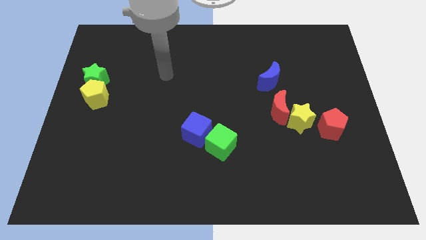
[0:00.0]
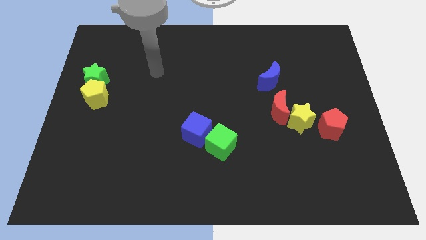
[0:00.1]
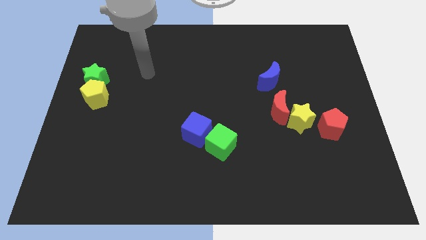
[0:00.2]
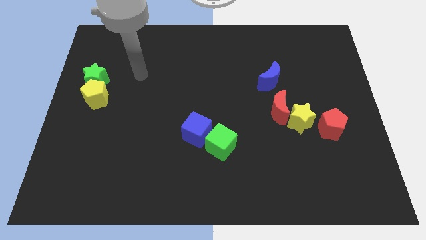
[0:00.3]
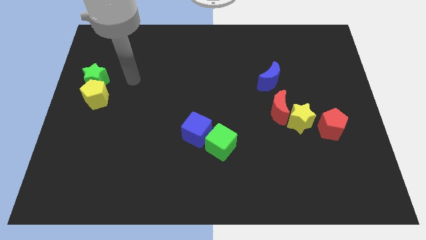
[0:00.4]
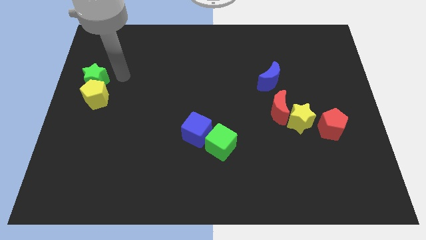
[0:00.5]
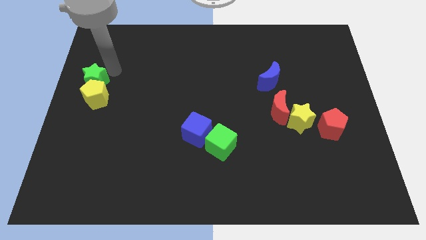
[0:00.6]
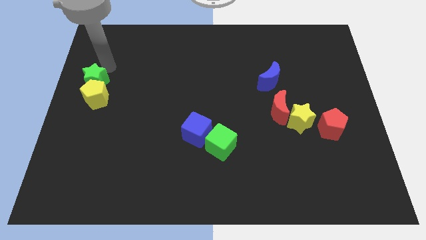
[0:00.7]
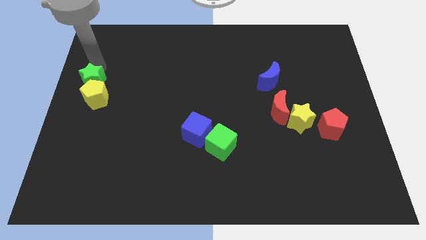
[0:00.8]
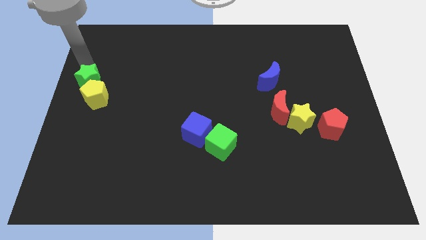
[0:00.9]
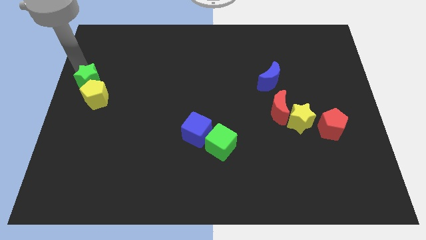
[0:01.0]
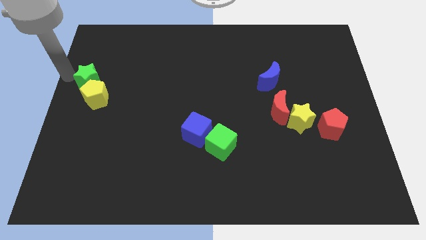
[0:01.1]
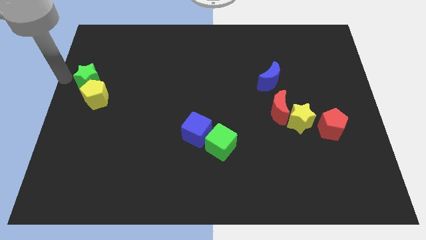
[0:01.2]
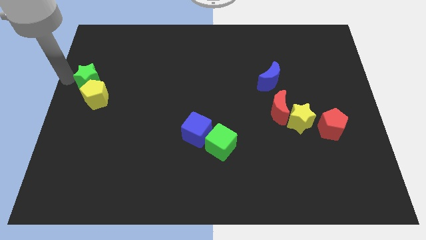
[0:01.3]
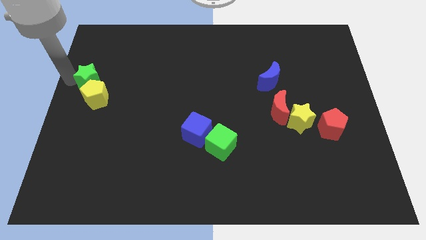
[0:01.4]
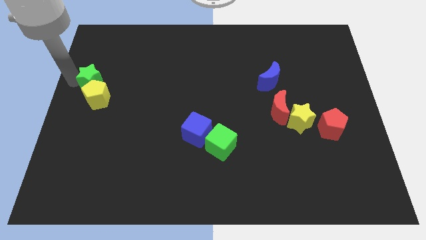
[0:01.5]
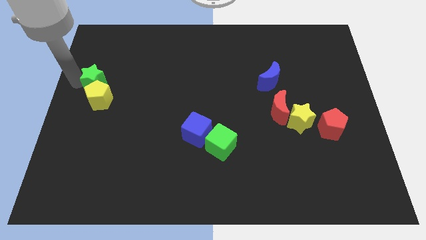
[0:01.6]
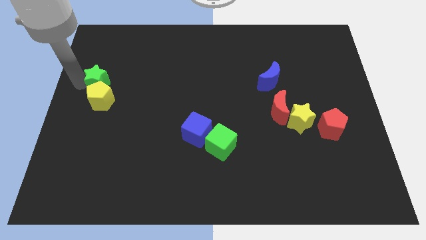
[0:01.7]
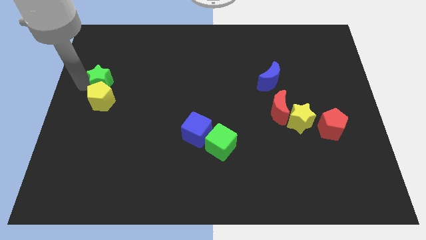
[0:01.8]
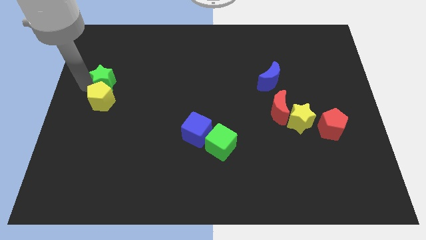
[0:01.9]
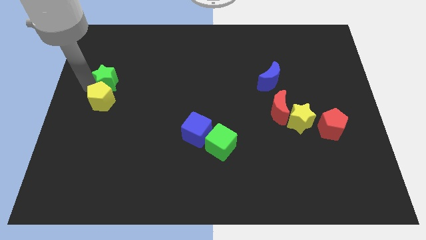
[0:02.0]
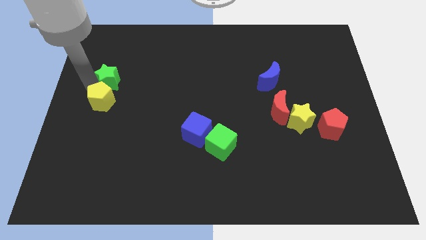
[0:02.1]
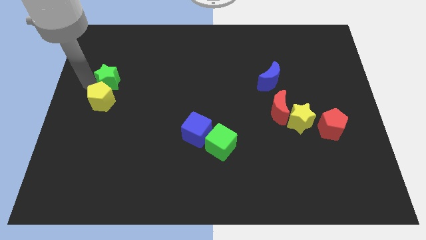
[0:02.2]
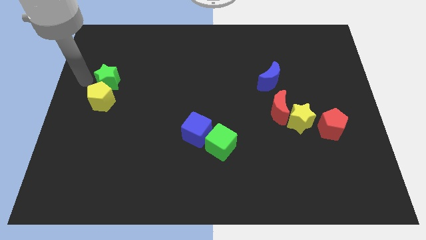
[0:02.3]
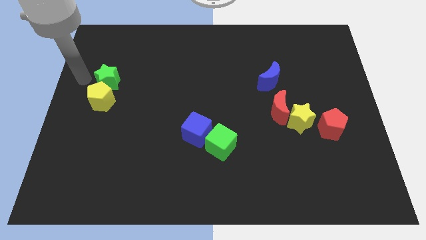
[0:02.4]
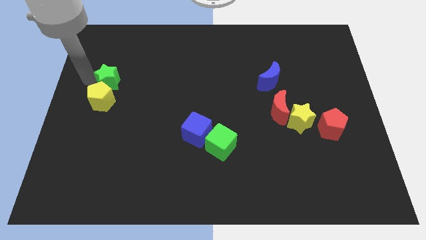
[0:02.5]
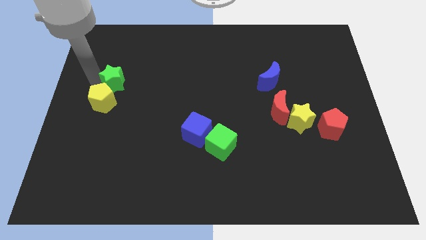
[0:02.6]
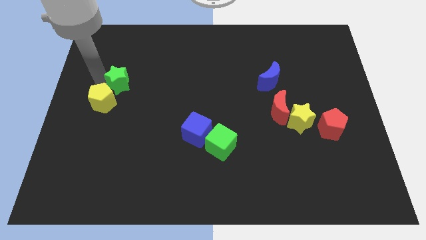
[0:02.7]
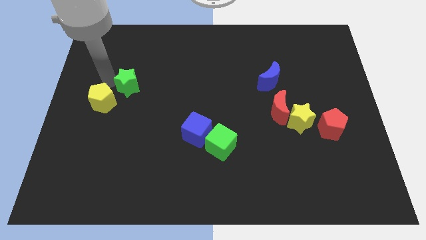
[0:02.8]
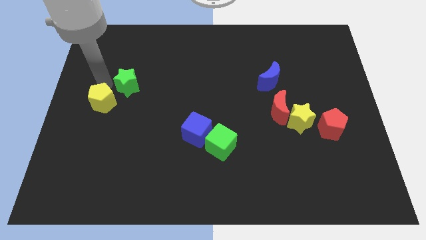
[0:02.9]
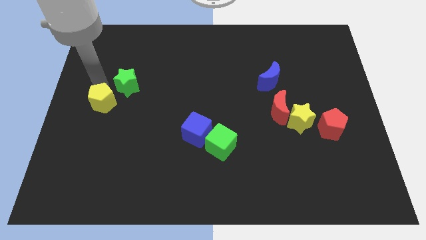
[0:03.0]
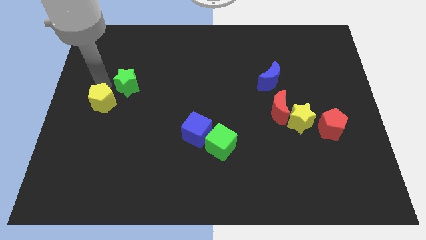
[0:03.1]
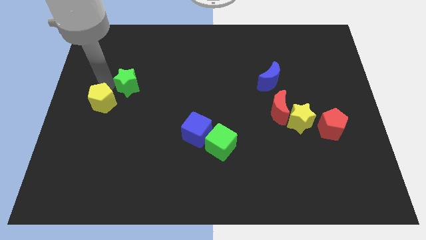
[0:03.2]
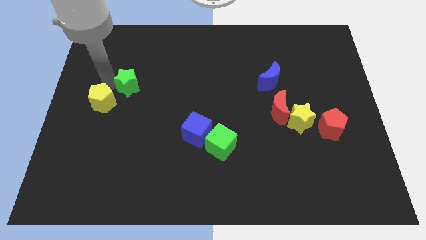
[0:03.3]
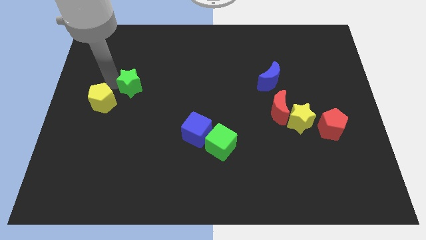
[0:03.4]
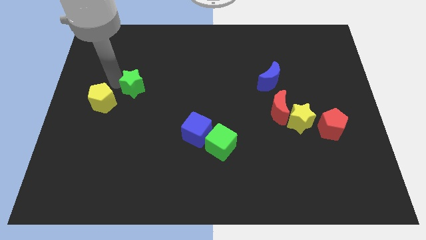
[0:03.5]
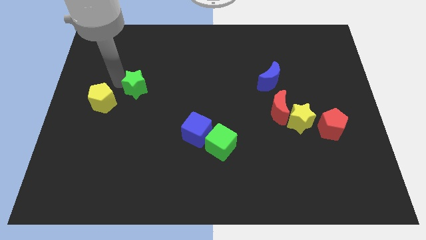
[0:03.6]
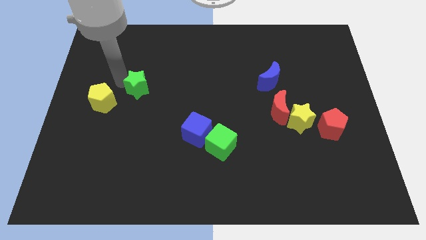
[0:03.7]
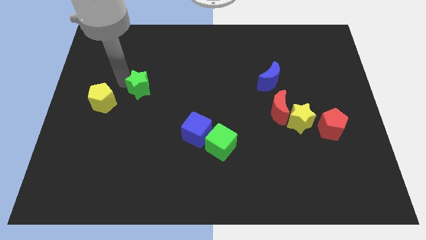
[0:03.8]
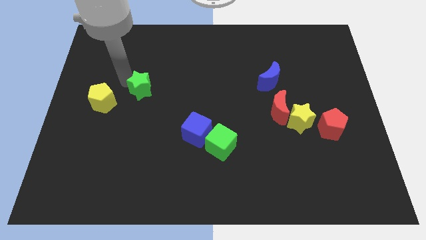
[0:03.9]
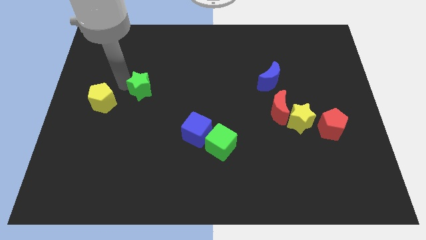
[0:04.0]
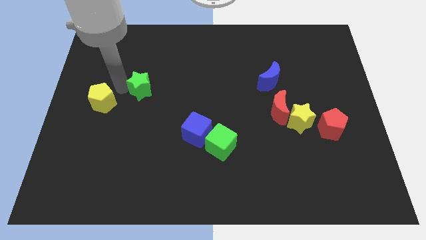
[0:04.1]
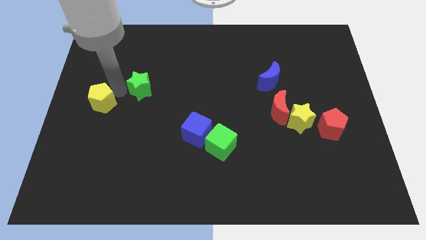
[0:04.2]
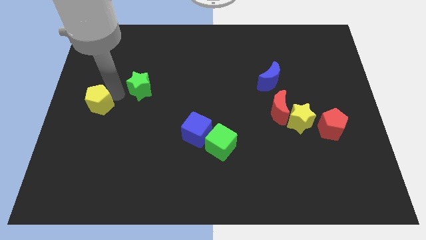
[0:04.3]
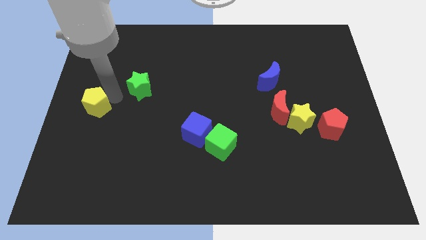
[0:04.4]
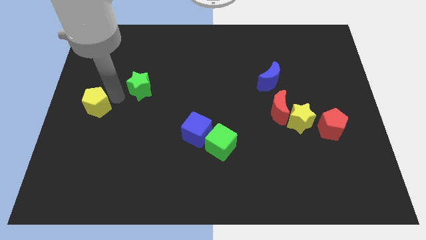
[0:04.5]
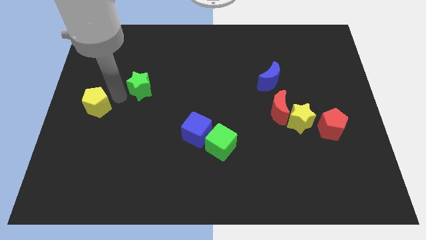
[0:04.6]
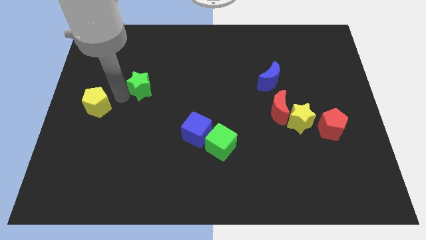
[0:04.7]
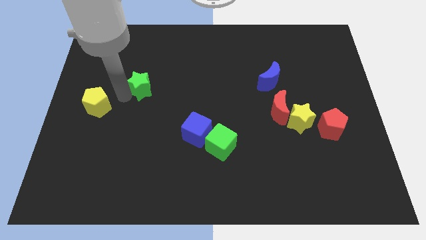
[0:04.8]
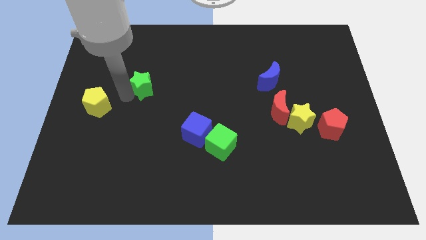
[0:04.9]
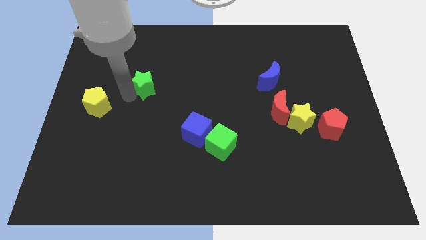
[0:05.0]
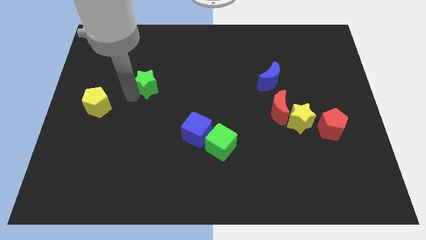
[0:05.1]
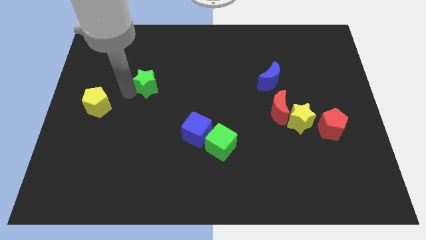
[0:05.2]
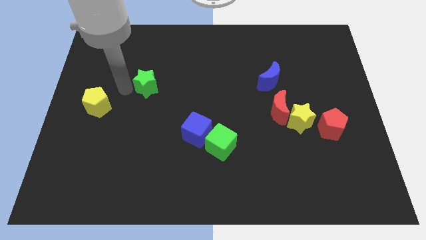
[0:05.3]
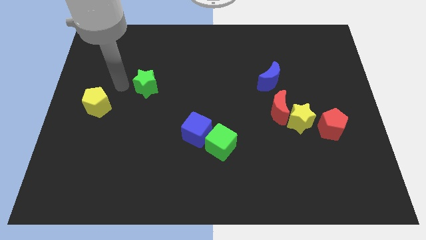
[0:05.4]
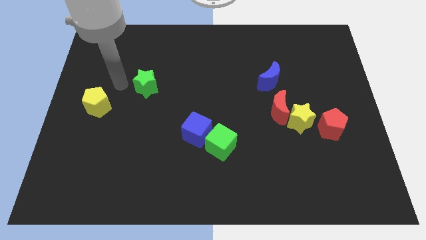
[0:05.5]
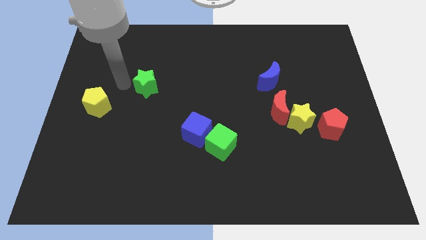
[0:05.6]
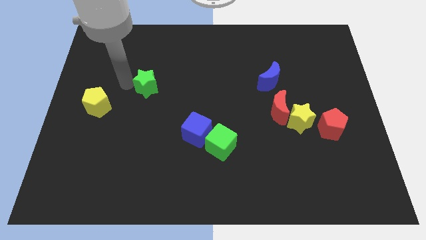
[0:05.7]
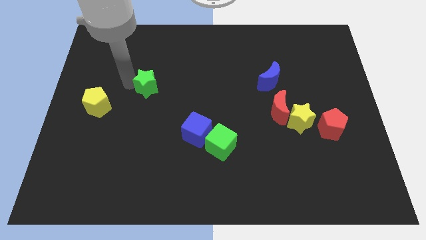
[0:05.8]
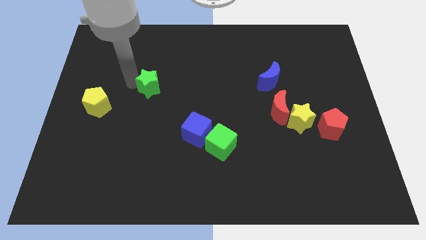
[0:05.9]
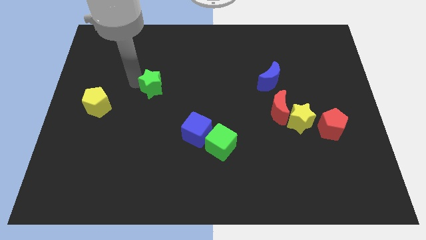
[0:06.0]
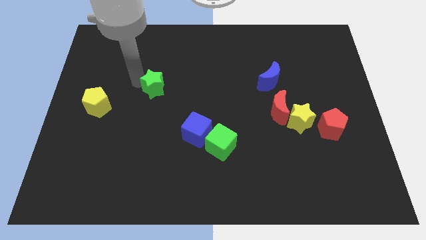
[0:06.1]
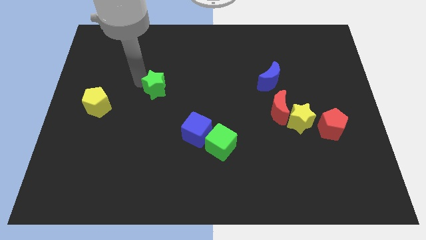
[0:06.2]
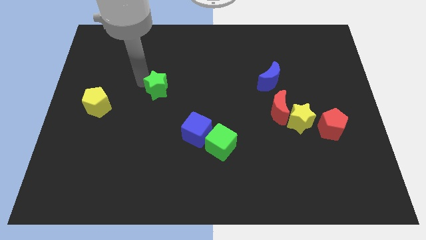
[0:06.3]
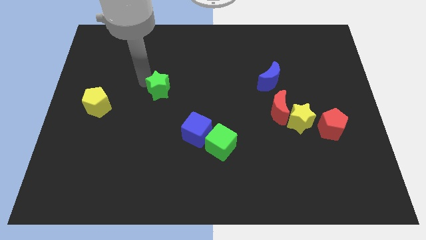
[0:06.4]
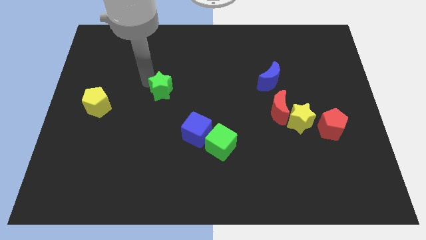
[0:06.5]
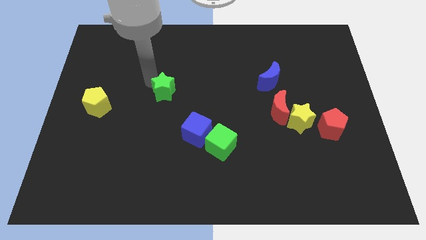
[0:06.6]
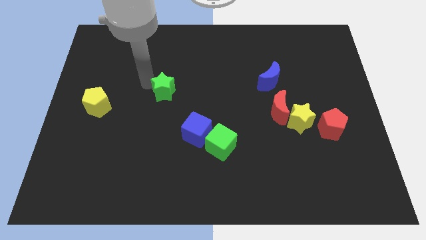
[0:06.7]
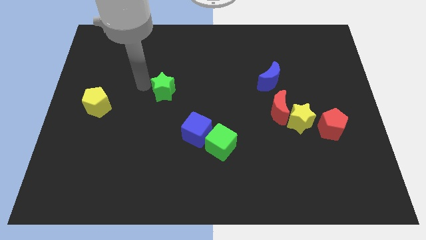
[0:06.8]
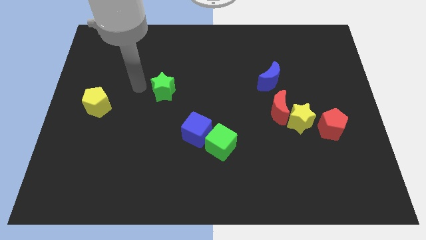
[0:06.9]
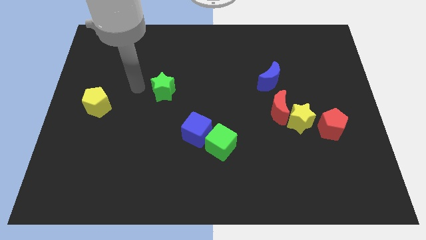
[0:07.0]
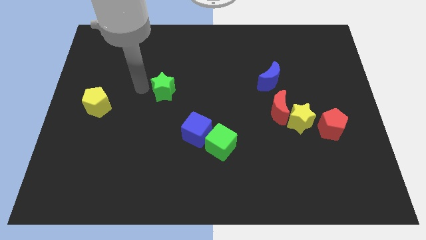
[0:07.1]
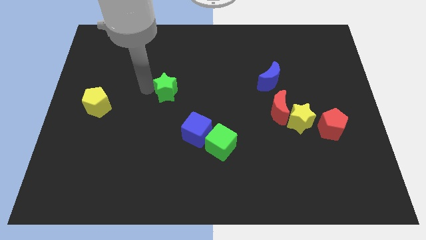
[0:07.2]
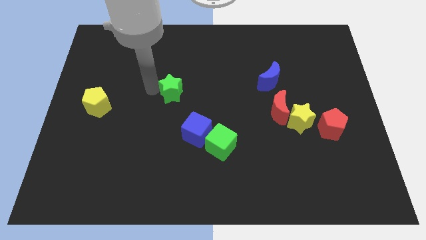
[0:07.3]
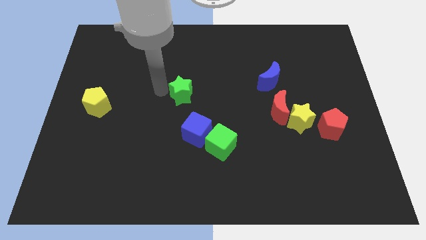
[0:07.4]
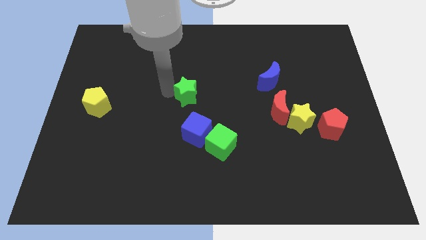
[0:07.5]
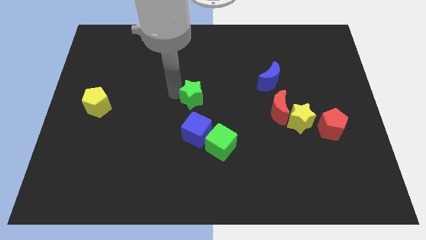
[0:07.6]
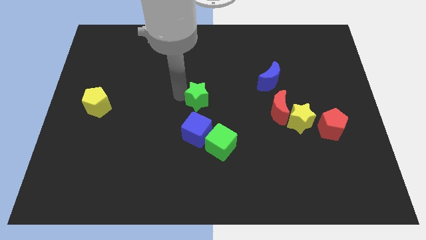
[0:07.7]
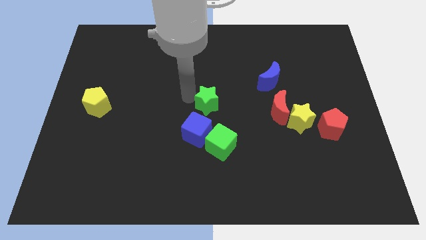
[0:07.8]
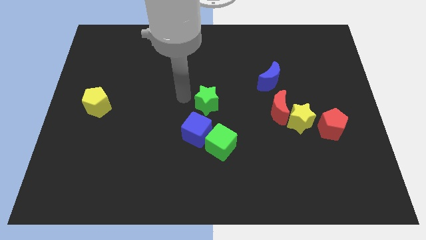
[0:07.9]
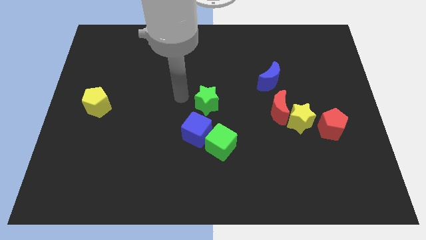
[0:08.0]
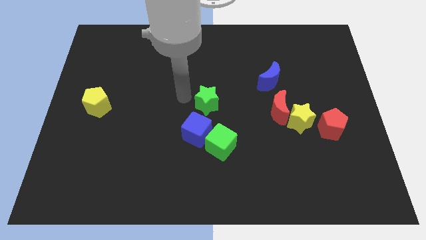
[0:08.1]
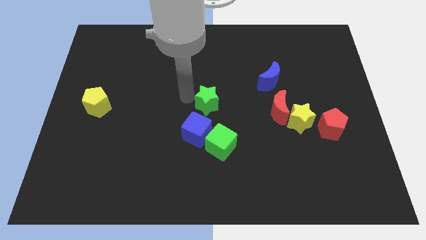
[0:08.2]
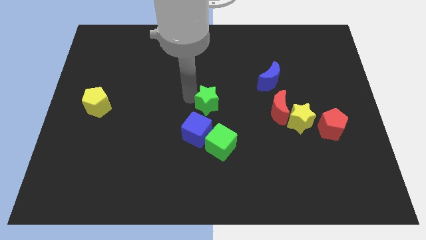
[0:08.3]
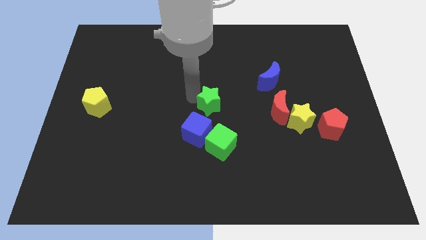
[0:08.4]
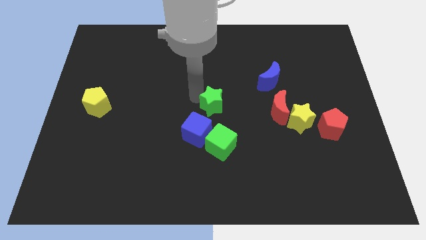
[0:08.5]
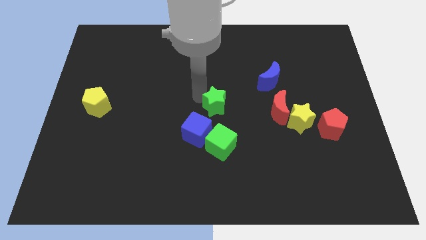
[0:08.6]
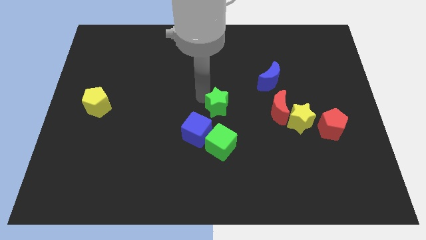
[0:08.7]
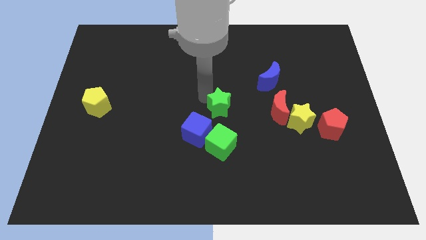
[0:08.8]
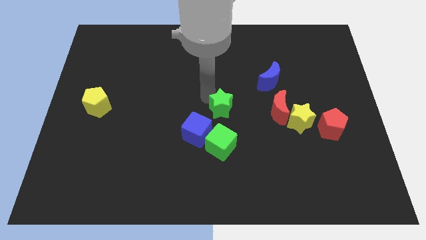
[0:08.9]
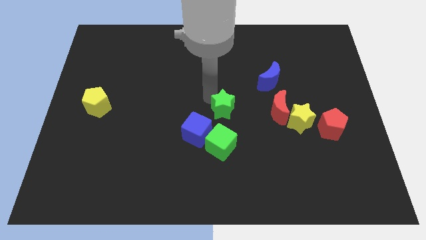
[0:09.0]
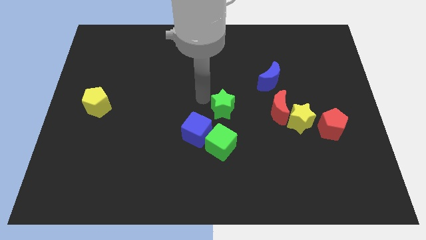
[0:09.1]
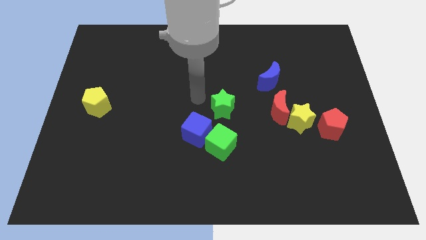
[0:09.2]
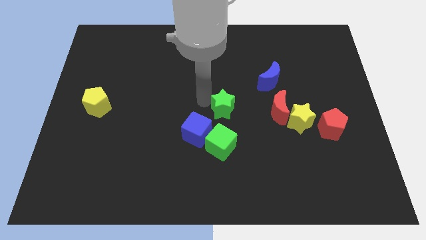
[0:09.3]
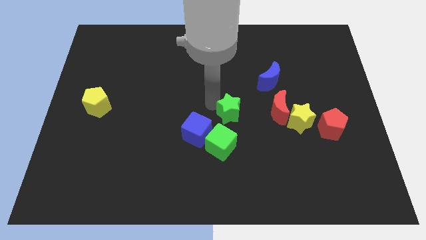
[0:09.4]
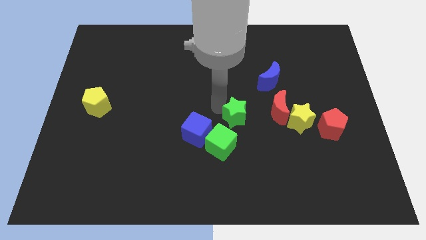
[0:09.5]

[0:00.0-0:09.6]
put the green star to the left of the yellow star
